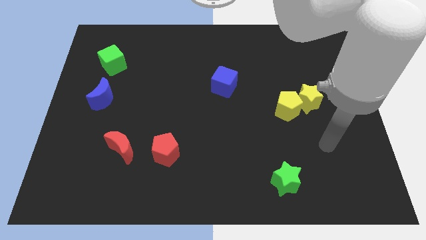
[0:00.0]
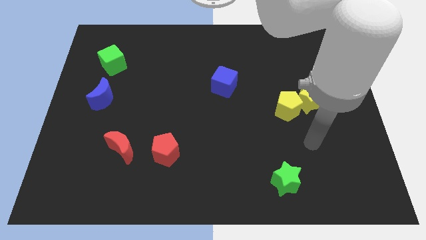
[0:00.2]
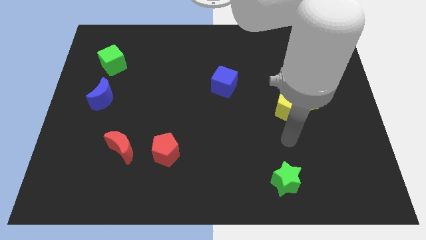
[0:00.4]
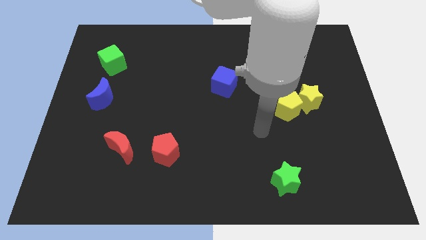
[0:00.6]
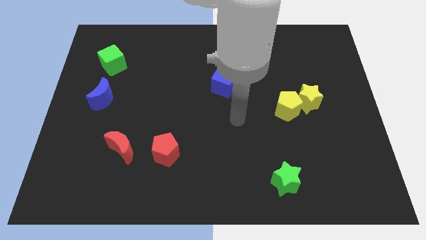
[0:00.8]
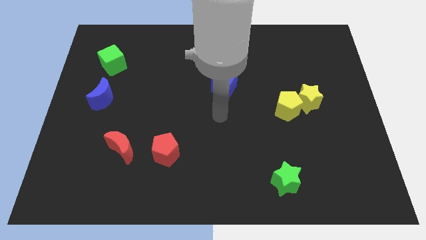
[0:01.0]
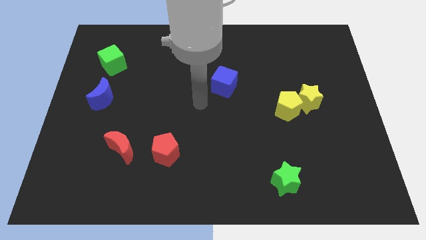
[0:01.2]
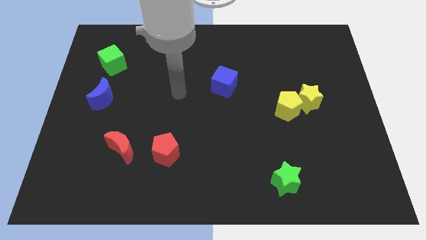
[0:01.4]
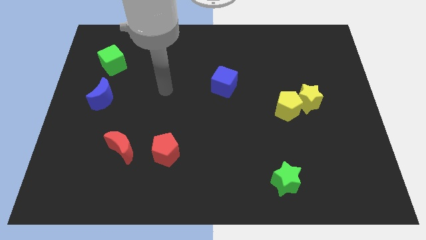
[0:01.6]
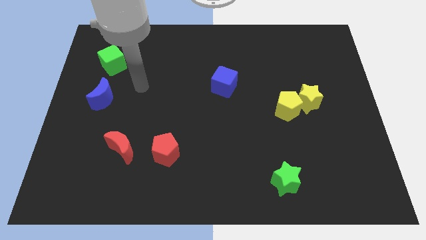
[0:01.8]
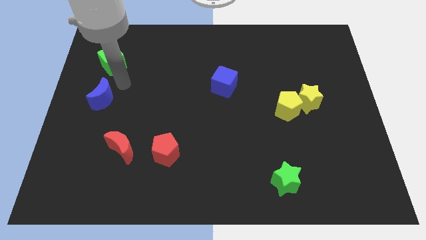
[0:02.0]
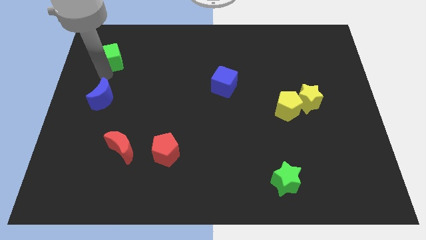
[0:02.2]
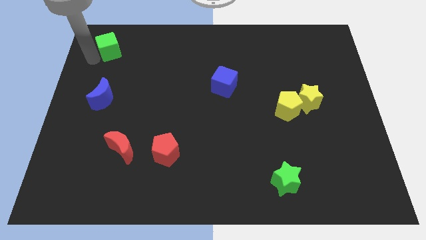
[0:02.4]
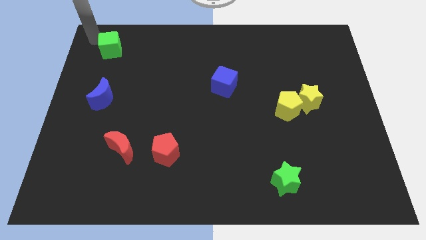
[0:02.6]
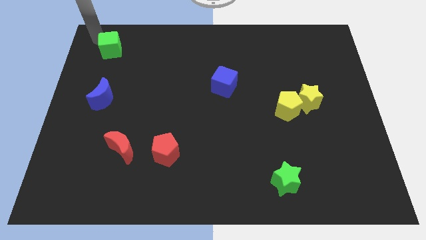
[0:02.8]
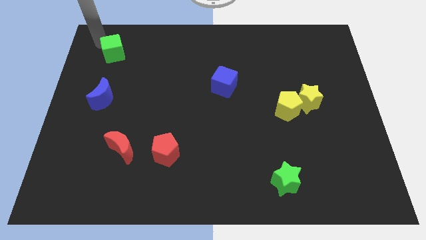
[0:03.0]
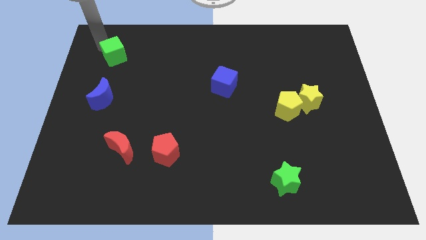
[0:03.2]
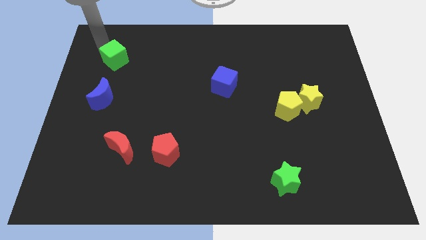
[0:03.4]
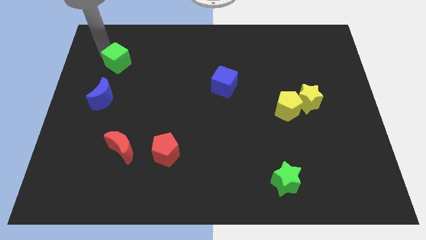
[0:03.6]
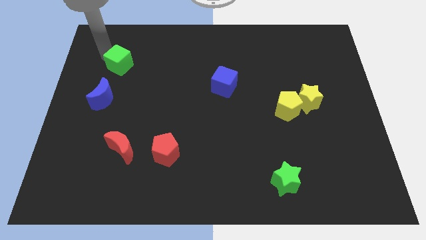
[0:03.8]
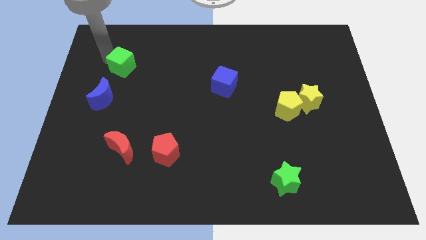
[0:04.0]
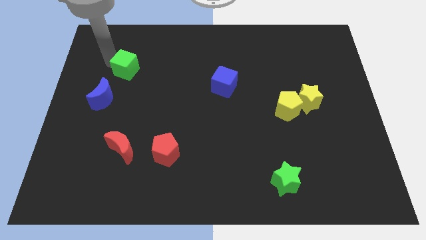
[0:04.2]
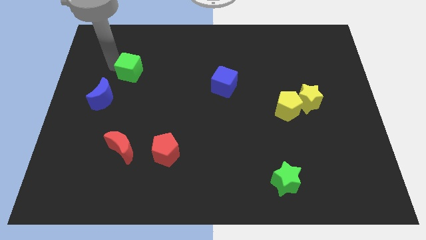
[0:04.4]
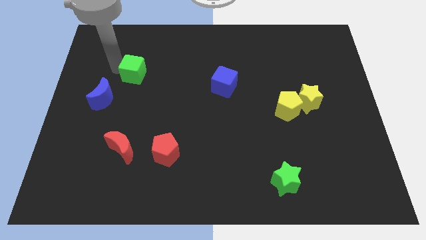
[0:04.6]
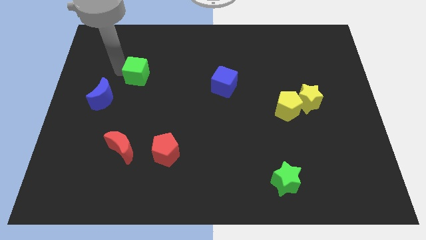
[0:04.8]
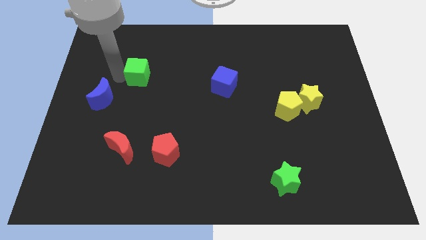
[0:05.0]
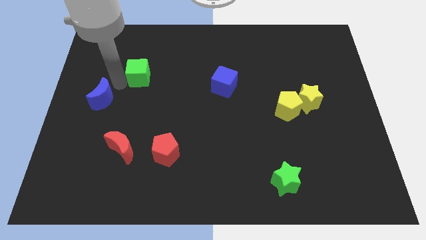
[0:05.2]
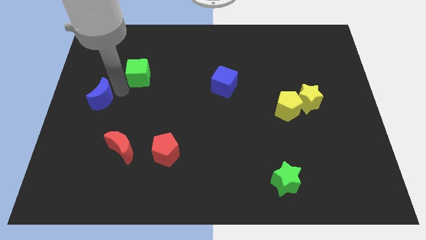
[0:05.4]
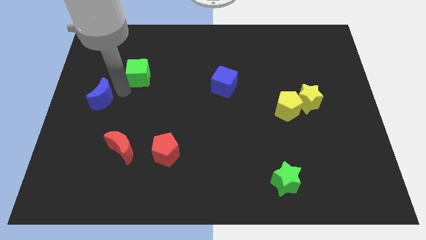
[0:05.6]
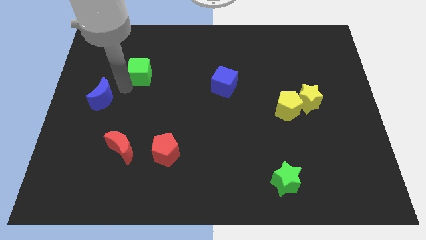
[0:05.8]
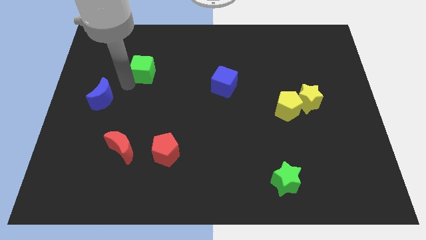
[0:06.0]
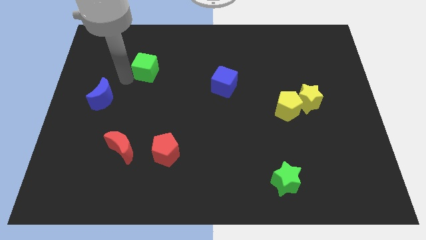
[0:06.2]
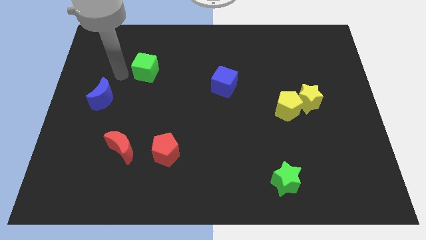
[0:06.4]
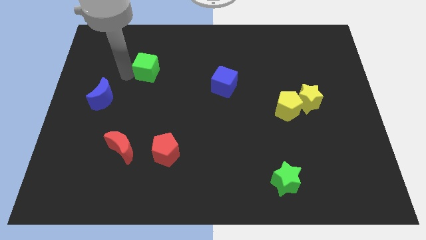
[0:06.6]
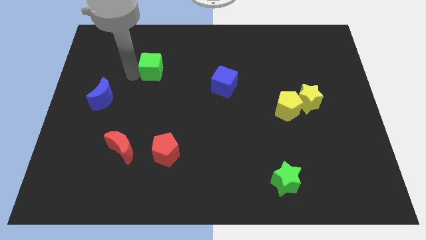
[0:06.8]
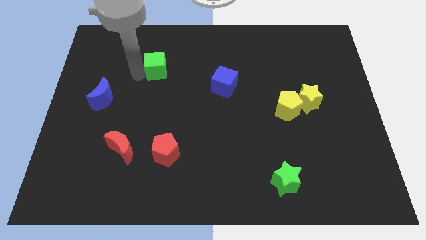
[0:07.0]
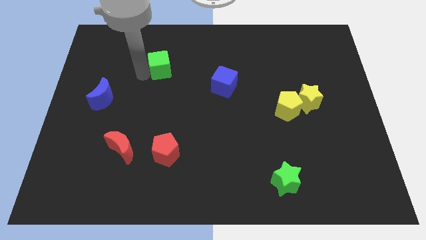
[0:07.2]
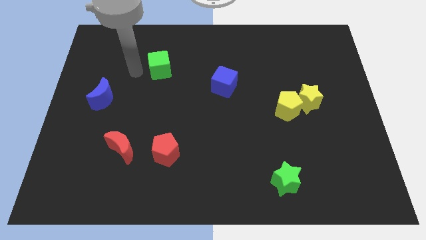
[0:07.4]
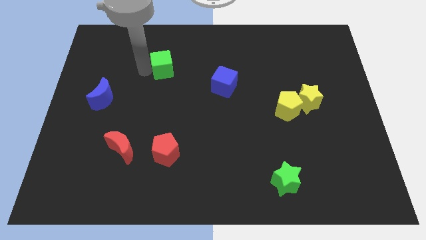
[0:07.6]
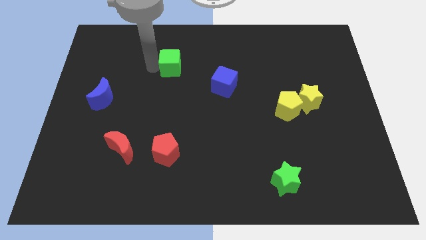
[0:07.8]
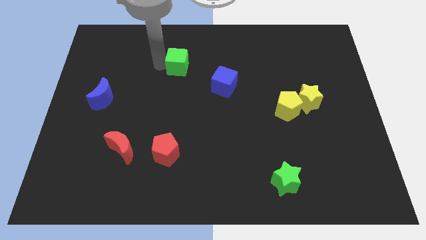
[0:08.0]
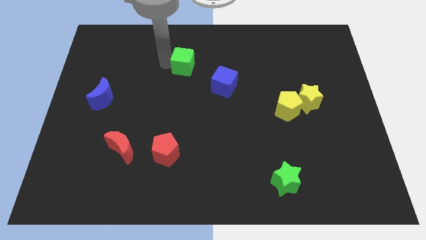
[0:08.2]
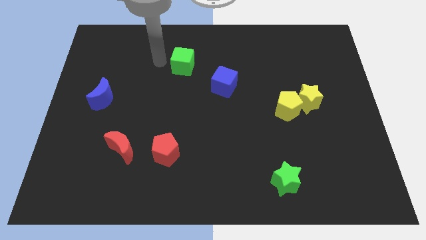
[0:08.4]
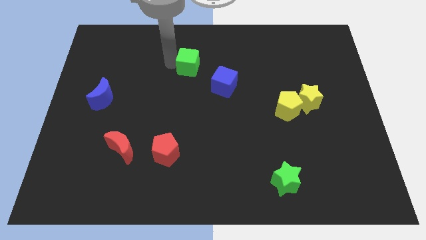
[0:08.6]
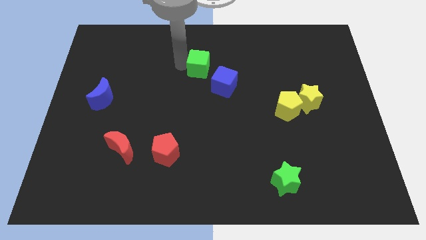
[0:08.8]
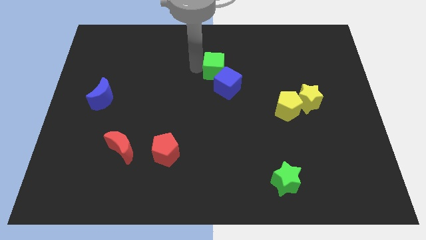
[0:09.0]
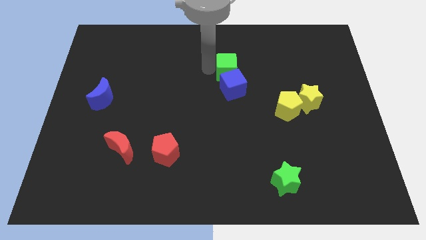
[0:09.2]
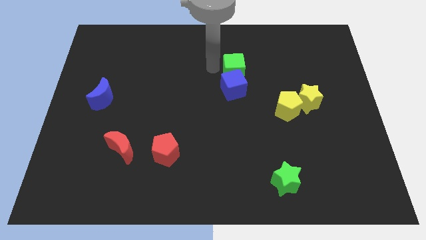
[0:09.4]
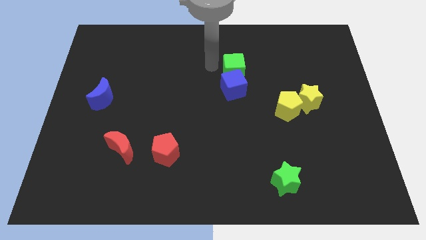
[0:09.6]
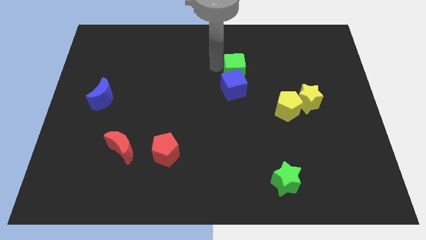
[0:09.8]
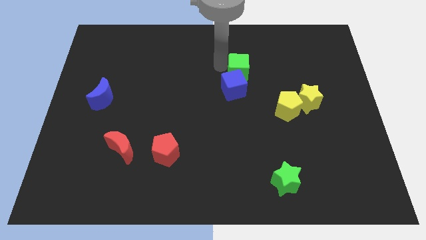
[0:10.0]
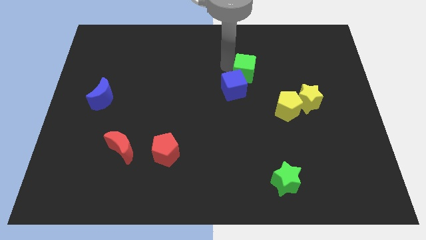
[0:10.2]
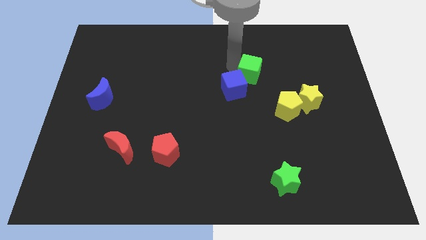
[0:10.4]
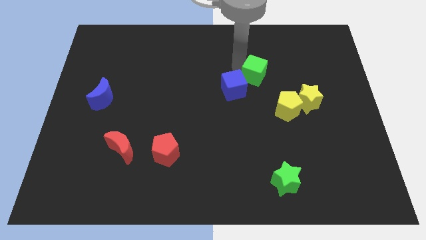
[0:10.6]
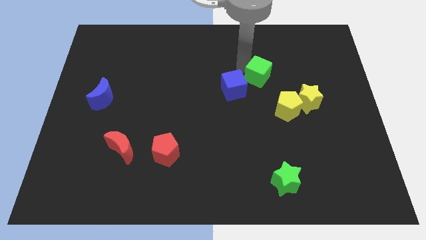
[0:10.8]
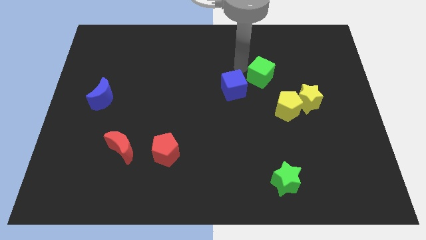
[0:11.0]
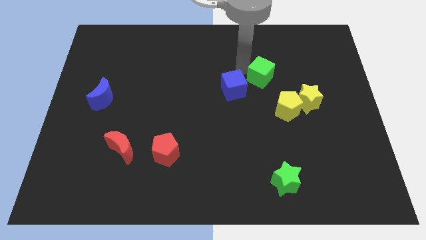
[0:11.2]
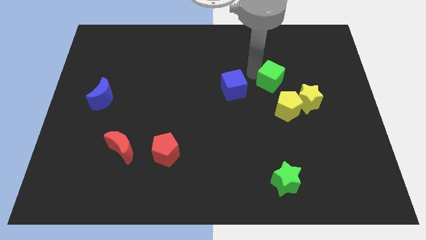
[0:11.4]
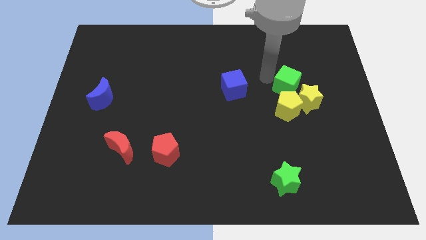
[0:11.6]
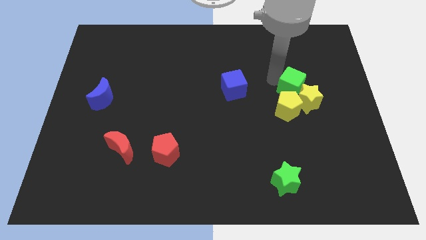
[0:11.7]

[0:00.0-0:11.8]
slide the green cube to the yellow star
